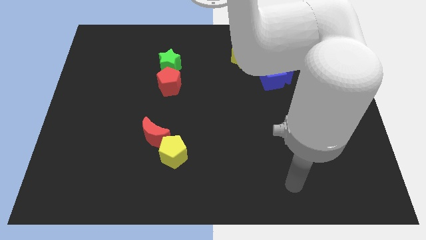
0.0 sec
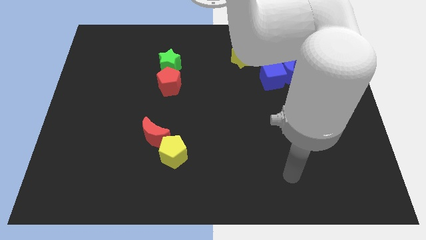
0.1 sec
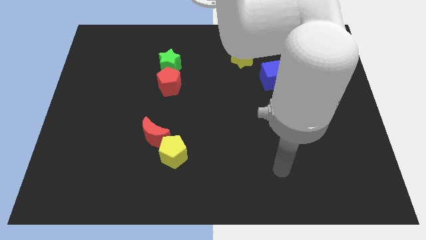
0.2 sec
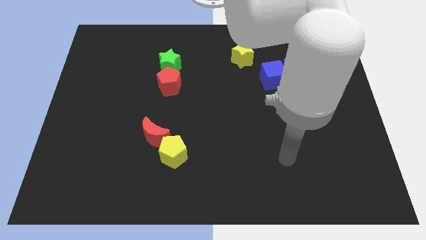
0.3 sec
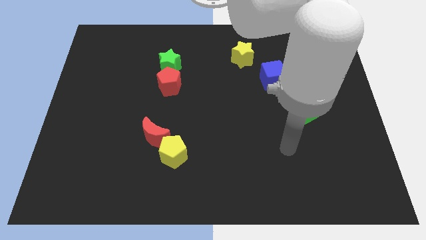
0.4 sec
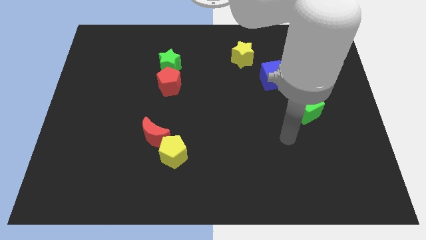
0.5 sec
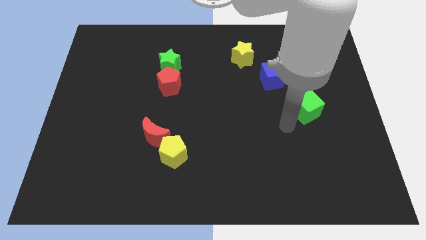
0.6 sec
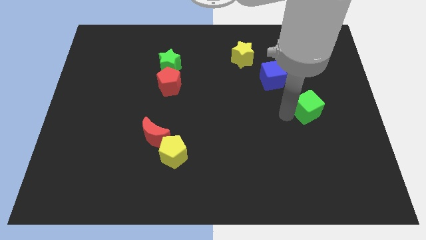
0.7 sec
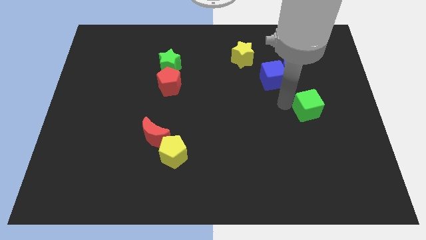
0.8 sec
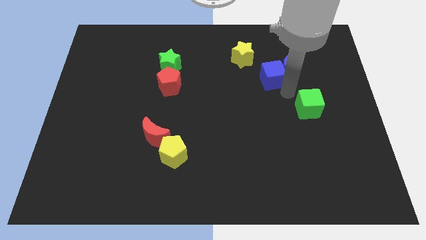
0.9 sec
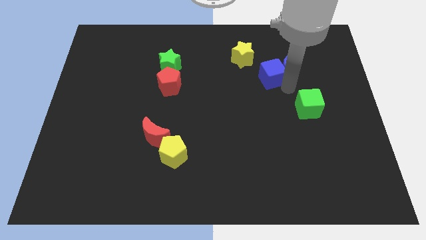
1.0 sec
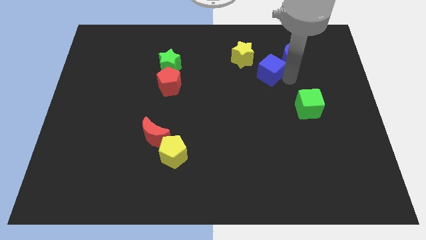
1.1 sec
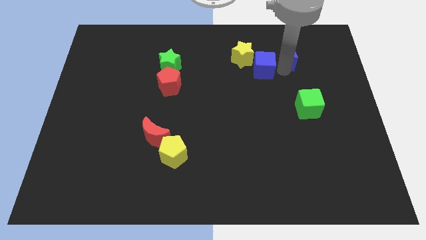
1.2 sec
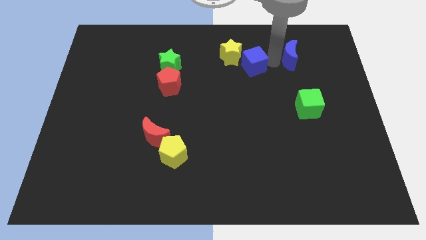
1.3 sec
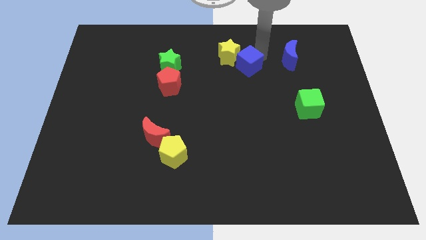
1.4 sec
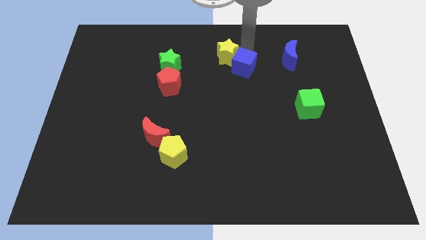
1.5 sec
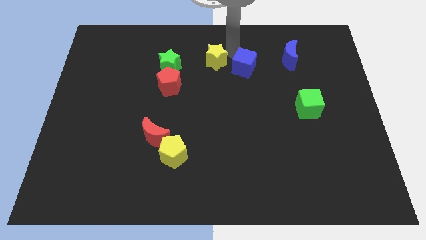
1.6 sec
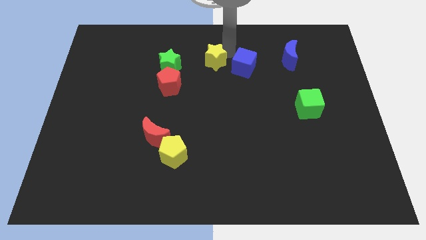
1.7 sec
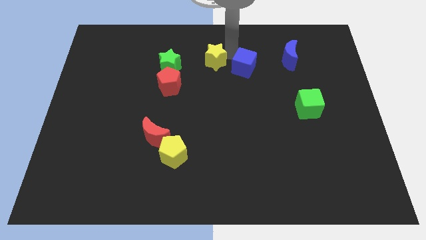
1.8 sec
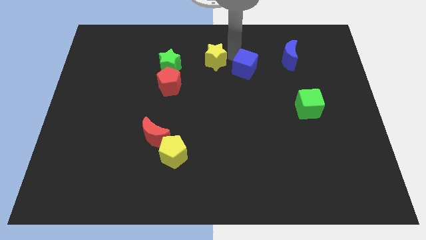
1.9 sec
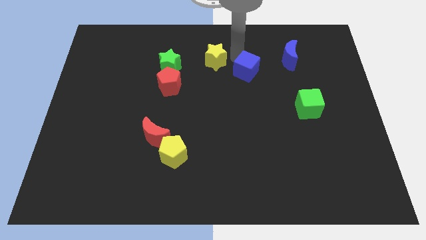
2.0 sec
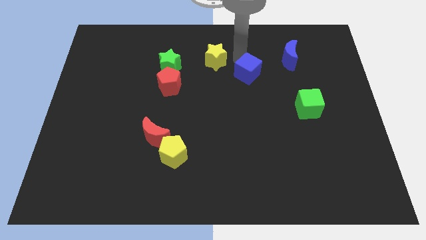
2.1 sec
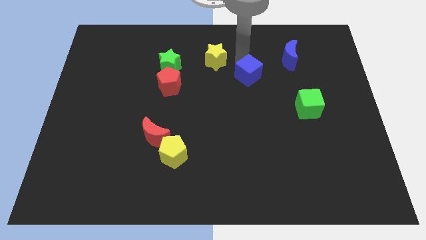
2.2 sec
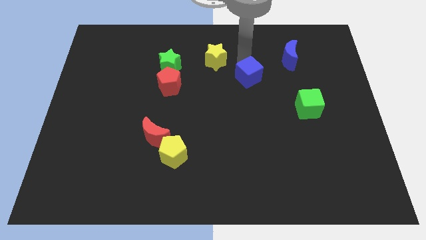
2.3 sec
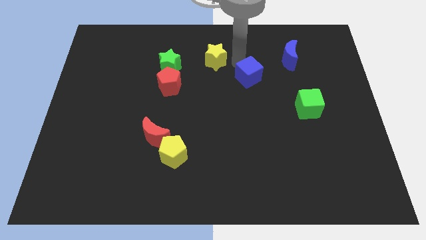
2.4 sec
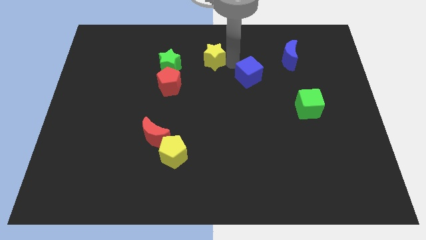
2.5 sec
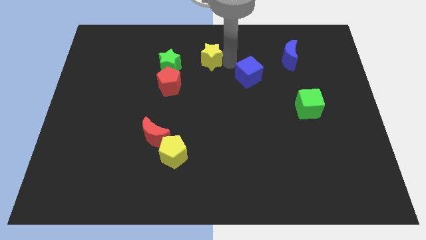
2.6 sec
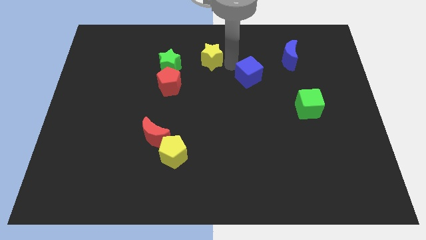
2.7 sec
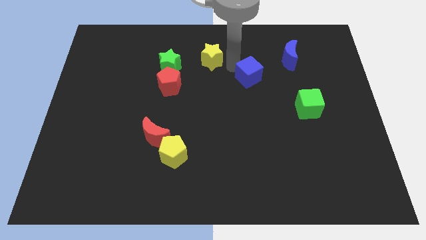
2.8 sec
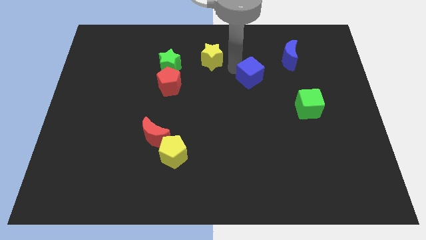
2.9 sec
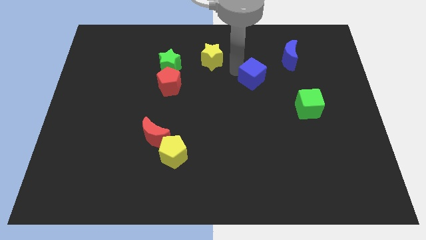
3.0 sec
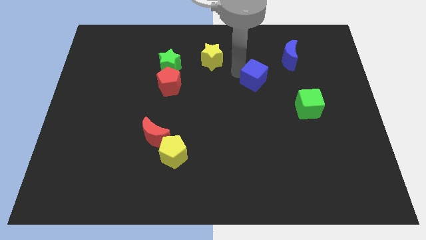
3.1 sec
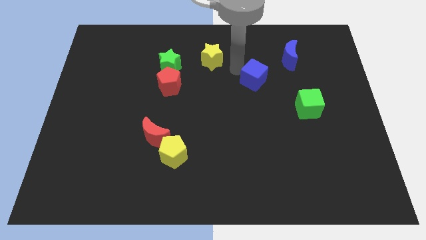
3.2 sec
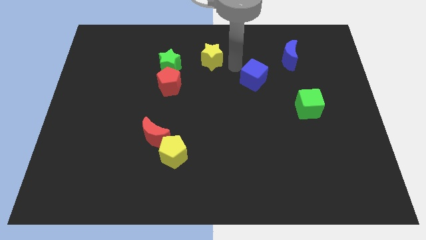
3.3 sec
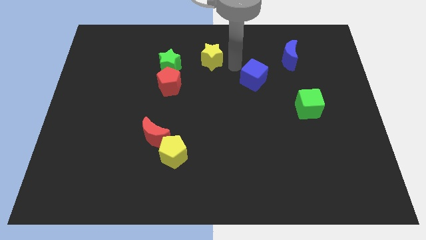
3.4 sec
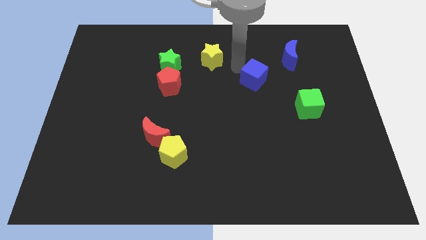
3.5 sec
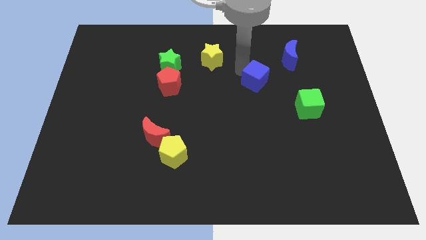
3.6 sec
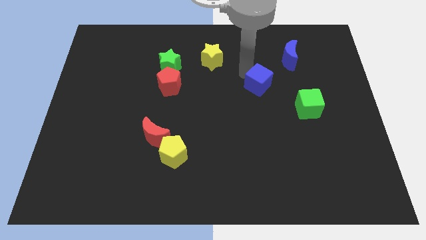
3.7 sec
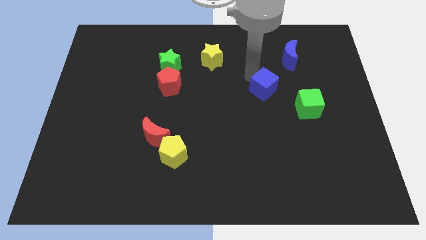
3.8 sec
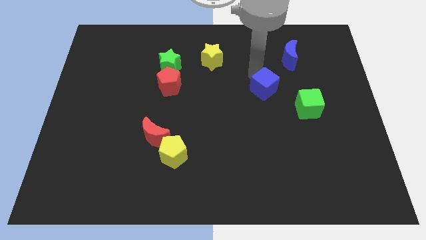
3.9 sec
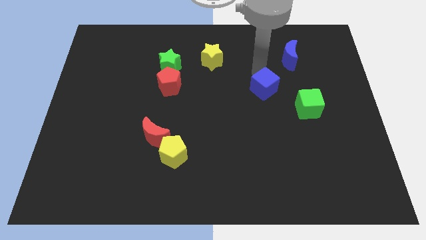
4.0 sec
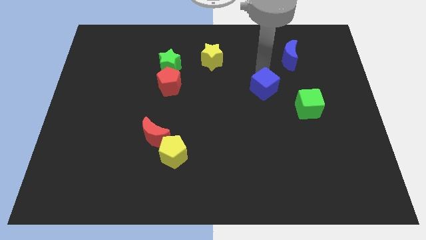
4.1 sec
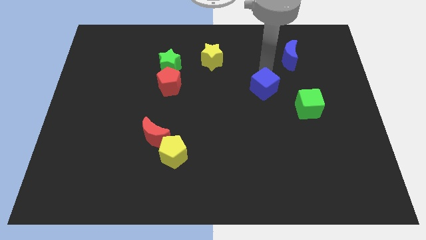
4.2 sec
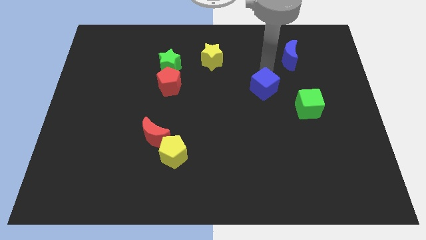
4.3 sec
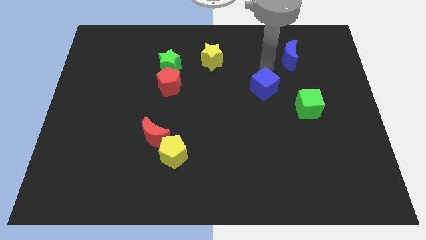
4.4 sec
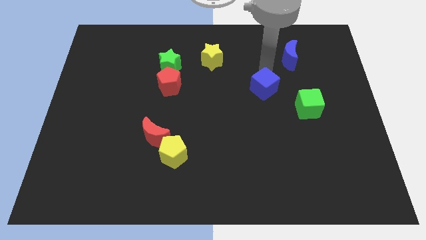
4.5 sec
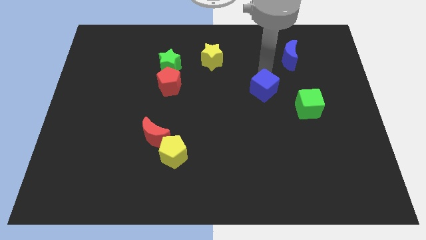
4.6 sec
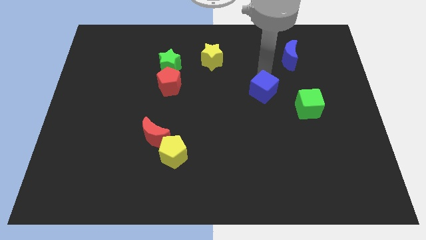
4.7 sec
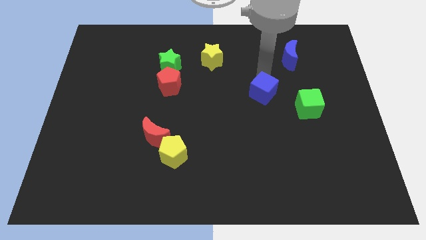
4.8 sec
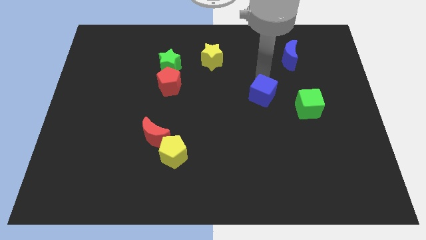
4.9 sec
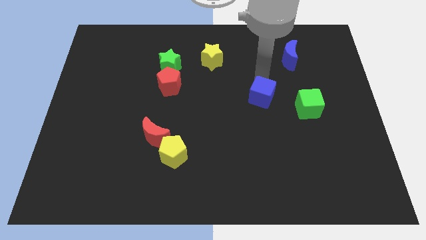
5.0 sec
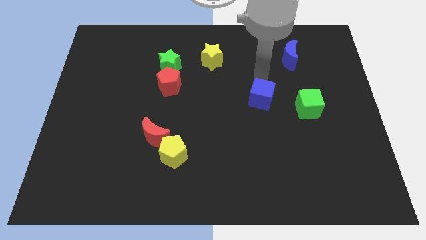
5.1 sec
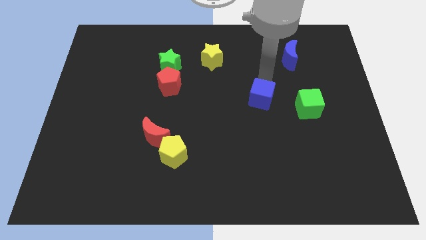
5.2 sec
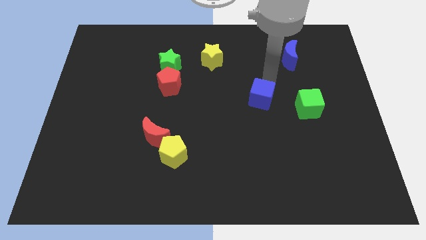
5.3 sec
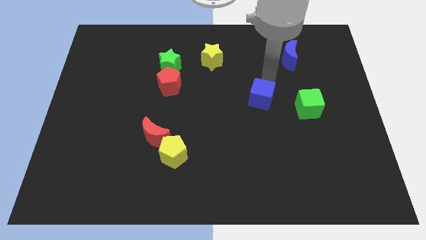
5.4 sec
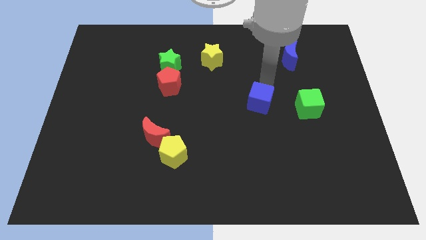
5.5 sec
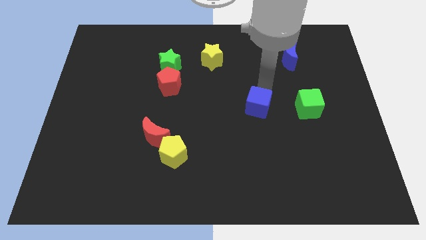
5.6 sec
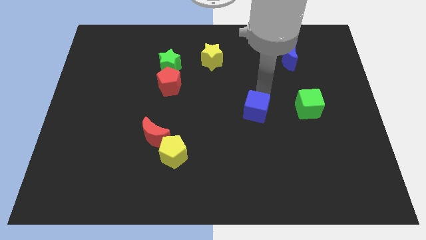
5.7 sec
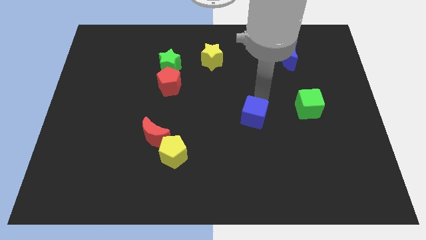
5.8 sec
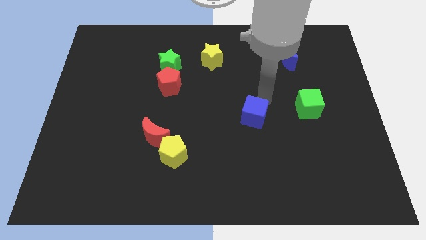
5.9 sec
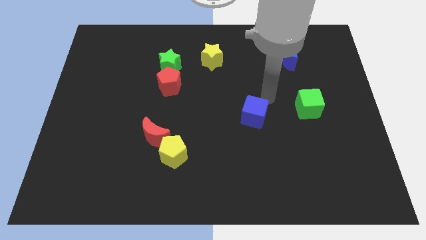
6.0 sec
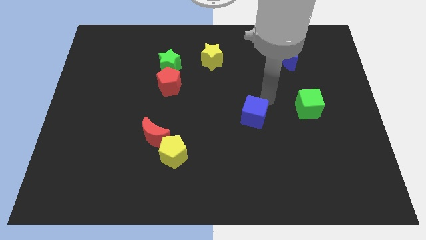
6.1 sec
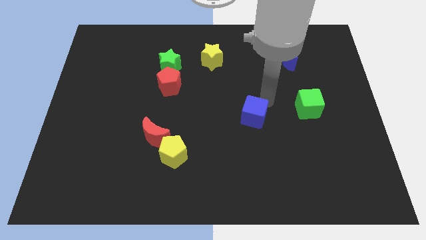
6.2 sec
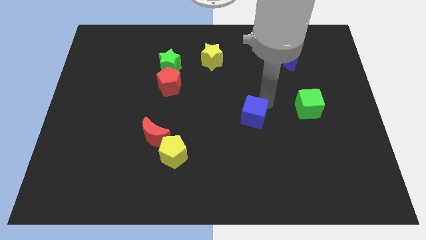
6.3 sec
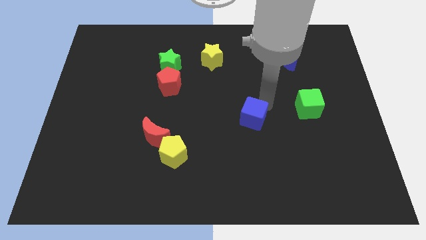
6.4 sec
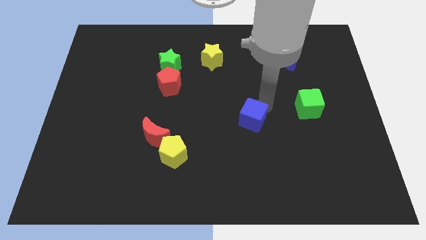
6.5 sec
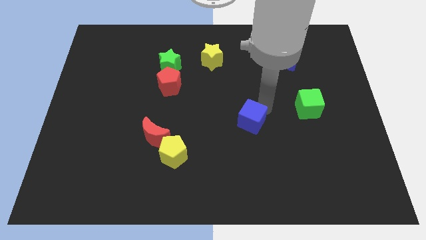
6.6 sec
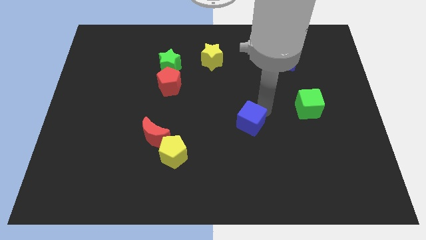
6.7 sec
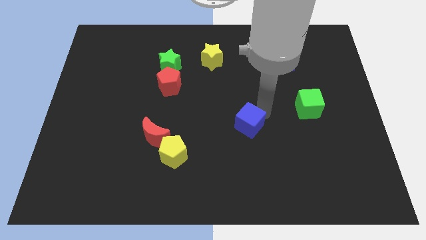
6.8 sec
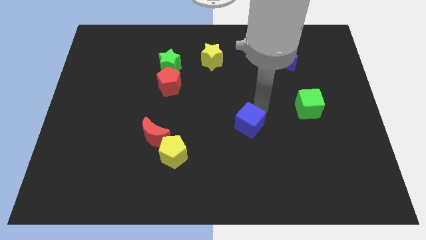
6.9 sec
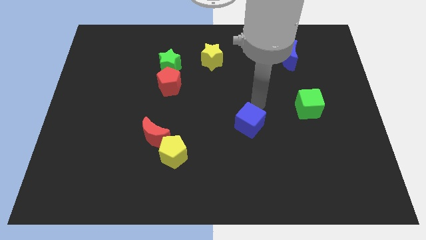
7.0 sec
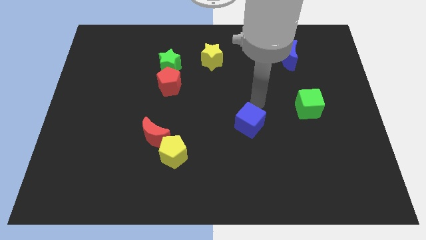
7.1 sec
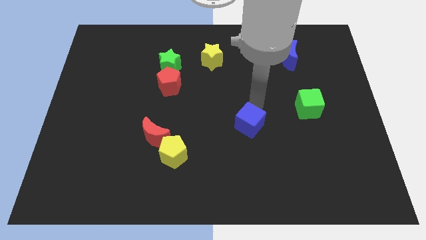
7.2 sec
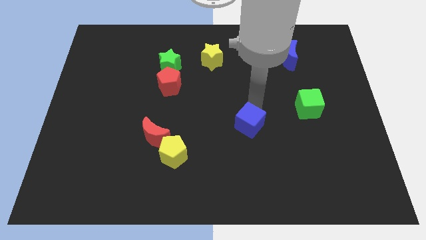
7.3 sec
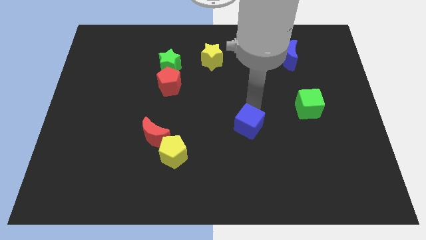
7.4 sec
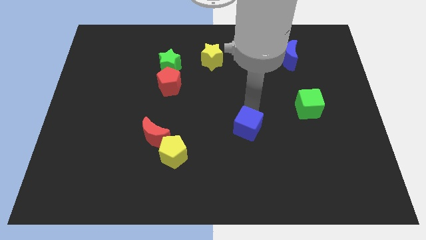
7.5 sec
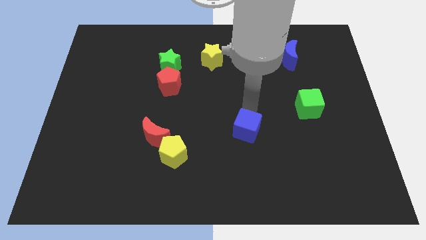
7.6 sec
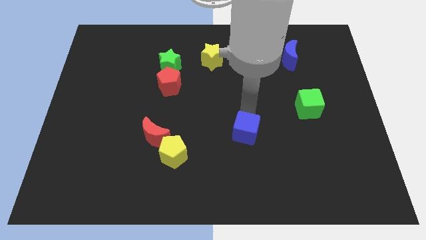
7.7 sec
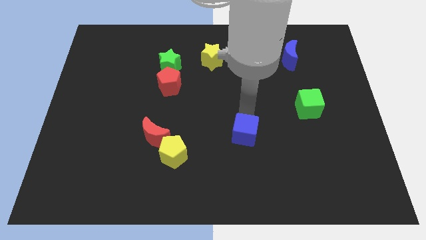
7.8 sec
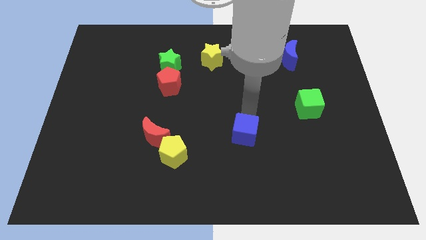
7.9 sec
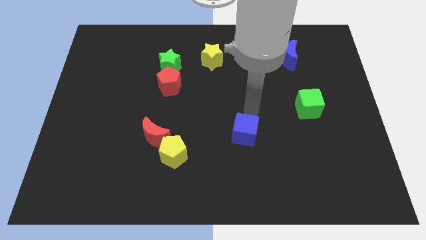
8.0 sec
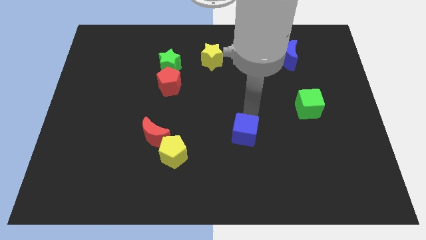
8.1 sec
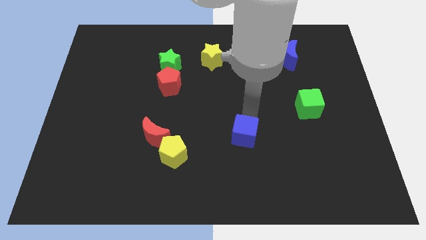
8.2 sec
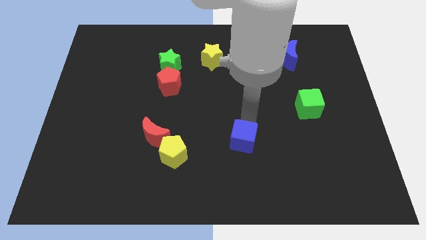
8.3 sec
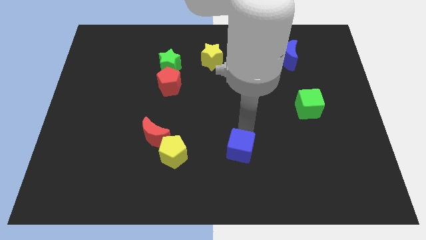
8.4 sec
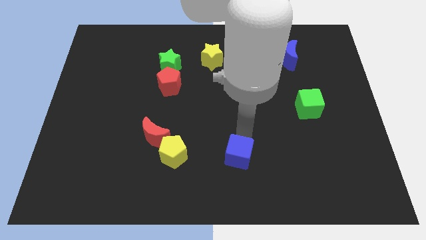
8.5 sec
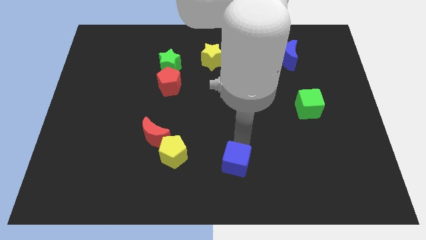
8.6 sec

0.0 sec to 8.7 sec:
push the blue cube to the bottom

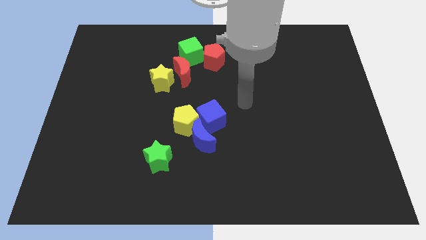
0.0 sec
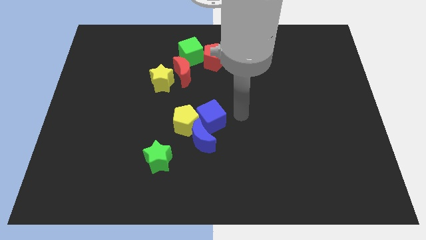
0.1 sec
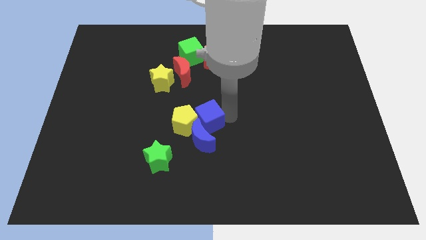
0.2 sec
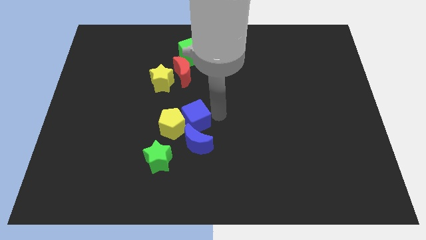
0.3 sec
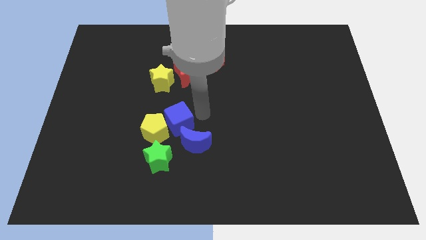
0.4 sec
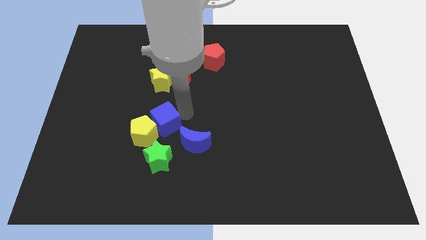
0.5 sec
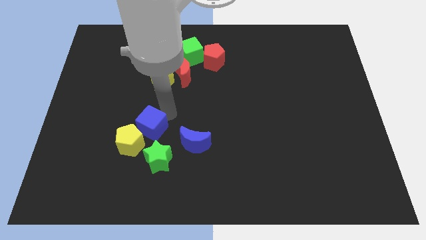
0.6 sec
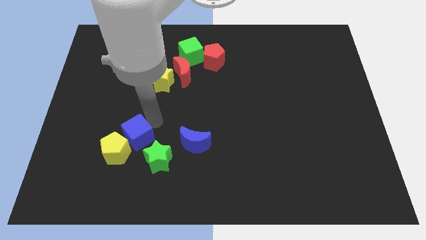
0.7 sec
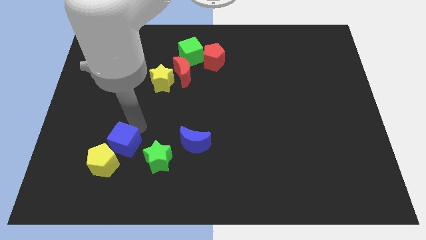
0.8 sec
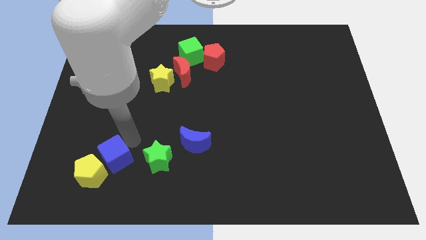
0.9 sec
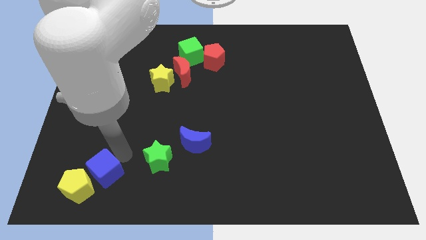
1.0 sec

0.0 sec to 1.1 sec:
push the yellow pentagon to the lower left corner
